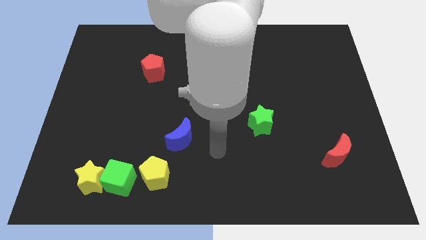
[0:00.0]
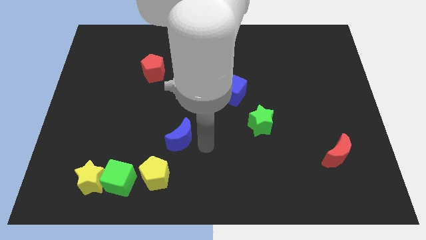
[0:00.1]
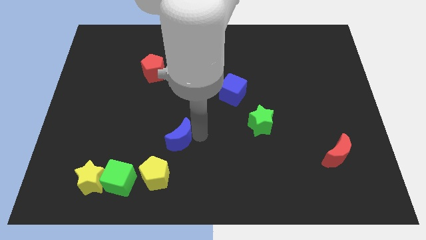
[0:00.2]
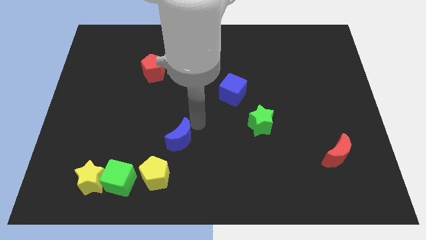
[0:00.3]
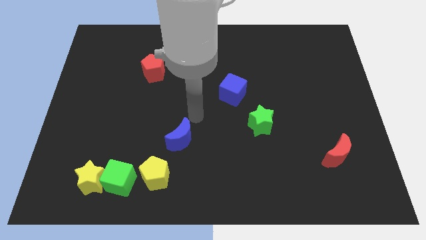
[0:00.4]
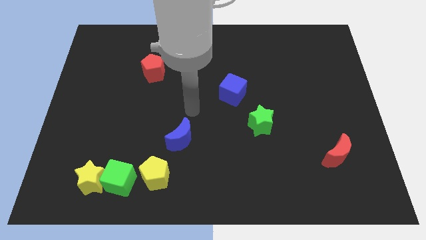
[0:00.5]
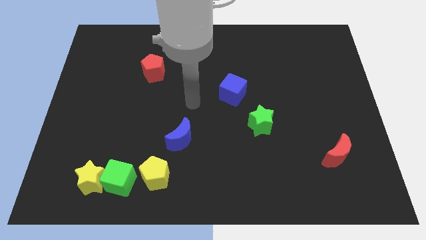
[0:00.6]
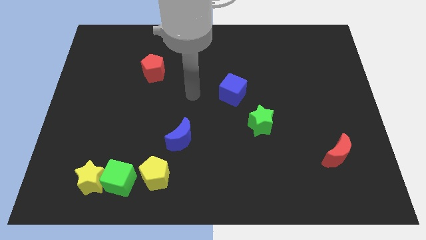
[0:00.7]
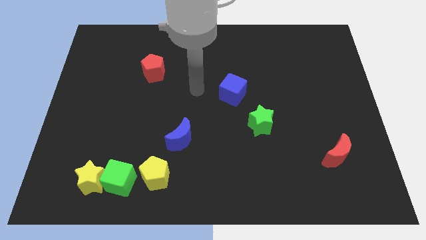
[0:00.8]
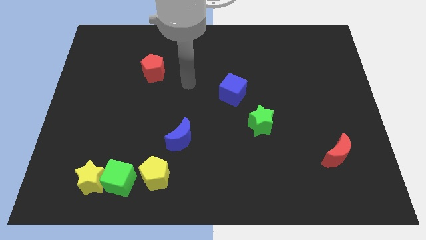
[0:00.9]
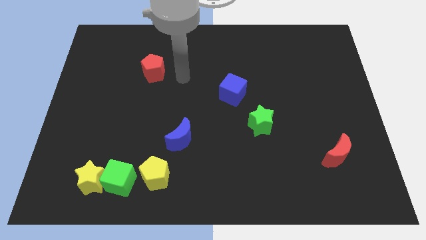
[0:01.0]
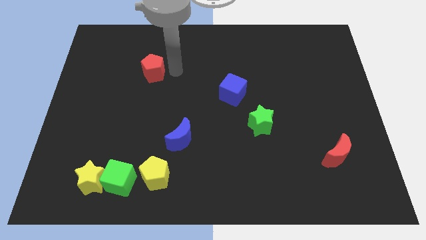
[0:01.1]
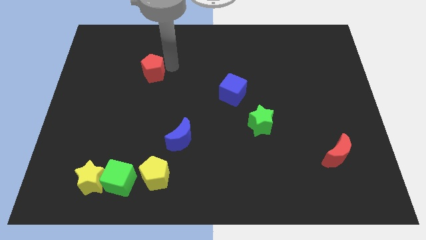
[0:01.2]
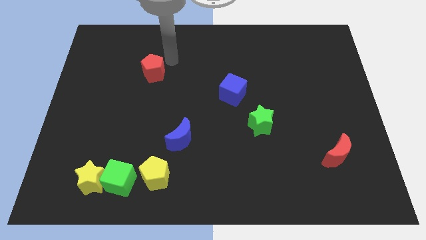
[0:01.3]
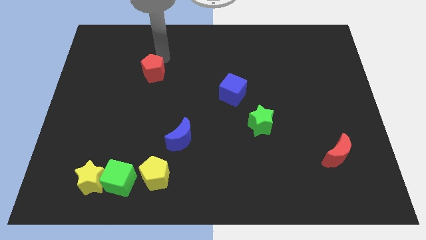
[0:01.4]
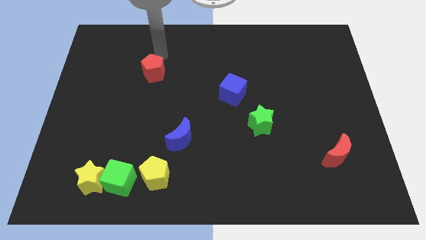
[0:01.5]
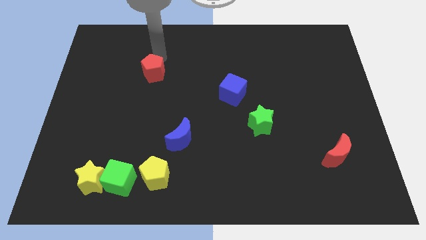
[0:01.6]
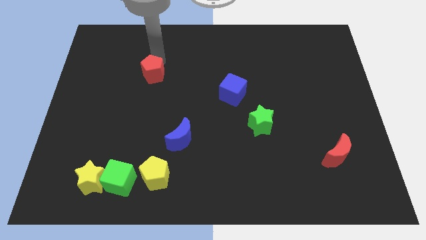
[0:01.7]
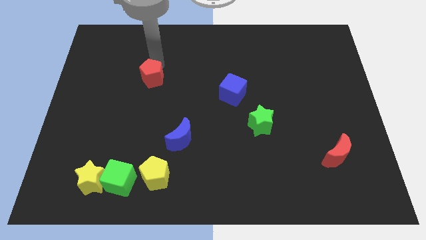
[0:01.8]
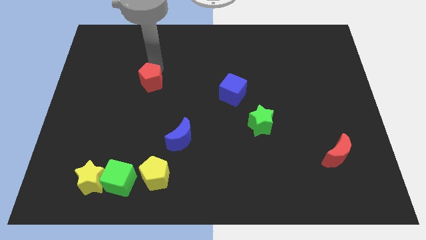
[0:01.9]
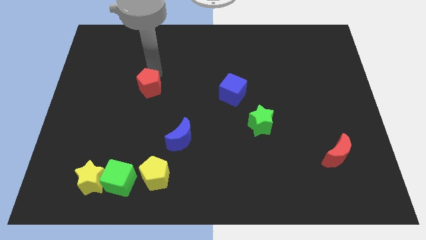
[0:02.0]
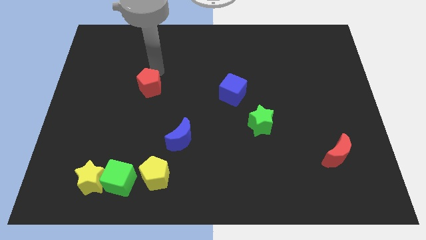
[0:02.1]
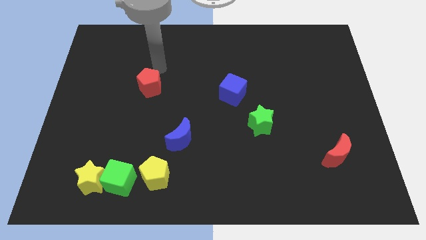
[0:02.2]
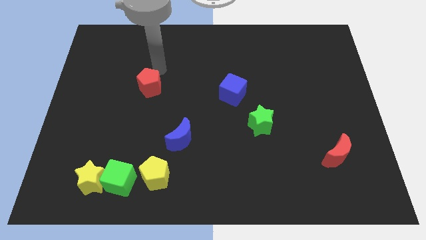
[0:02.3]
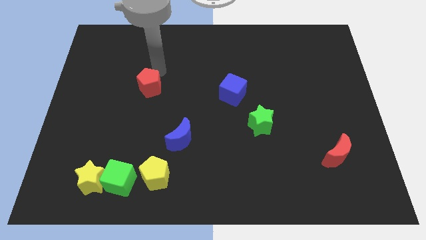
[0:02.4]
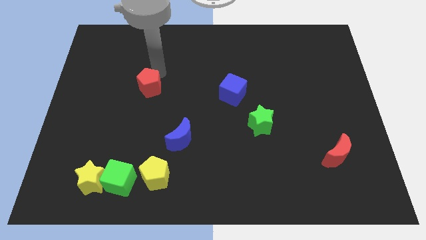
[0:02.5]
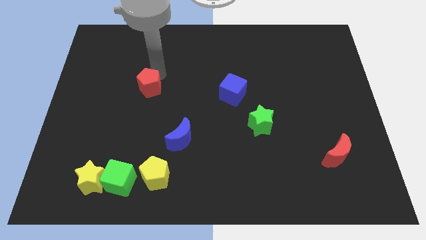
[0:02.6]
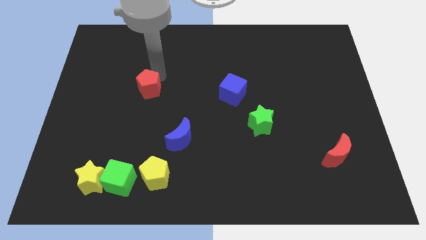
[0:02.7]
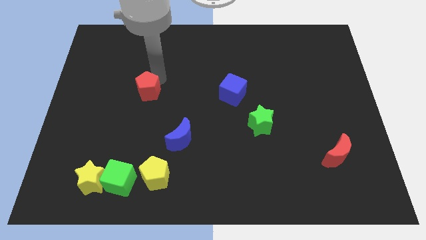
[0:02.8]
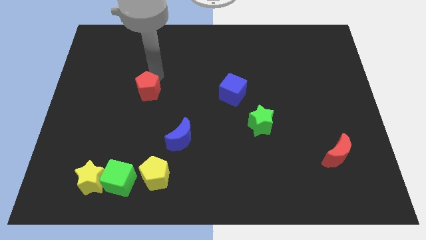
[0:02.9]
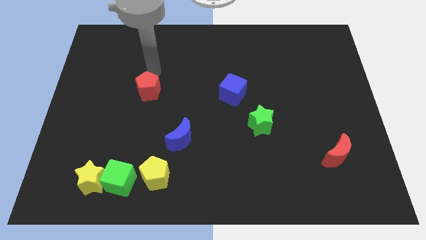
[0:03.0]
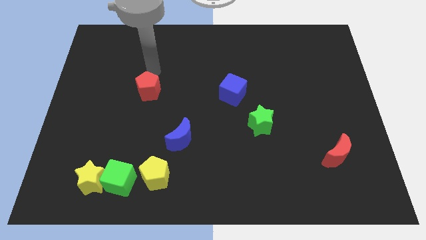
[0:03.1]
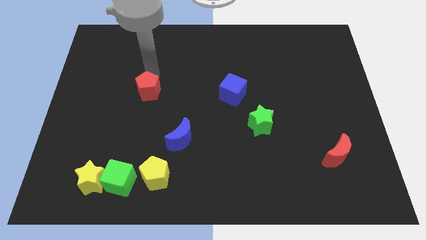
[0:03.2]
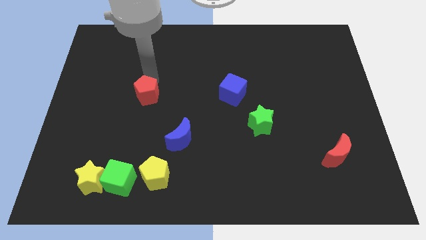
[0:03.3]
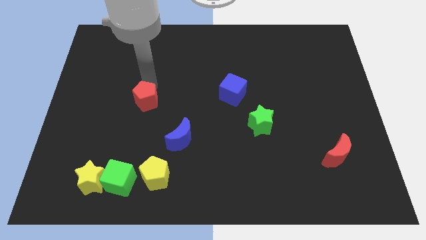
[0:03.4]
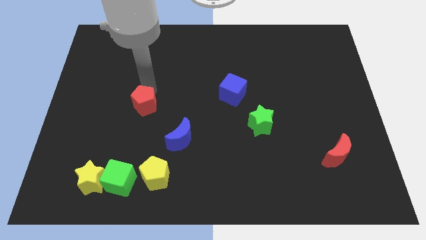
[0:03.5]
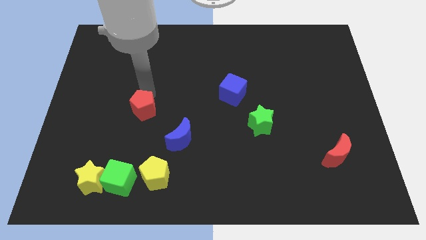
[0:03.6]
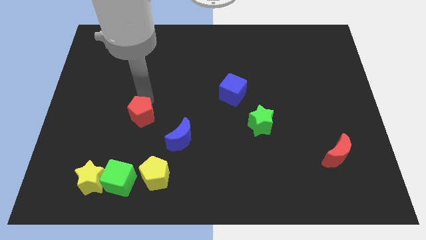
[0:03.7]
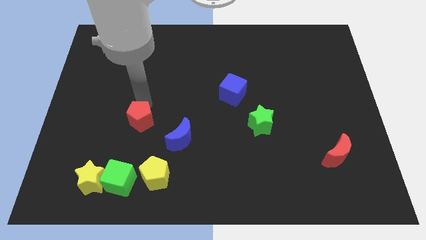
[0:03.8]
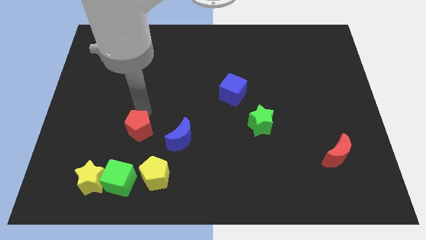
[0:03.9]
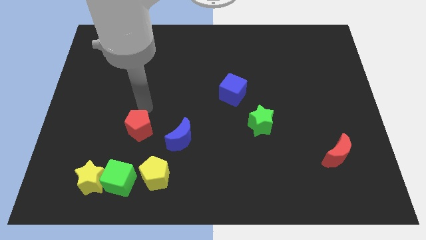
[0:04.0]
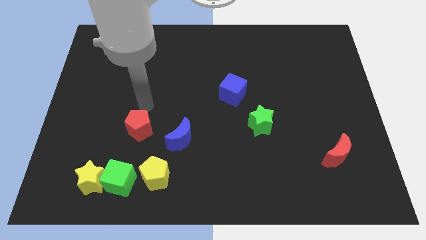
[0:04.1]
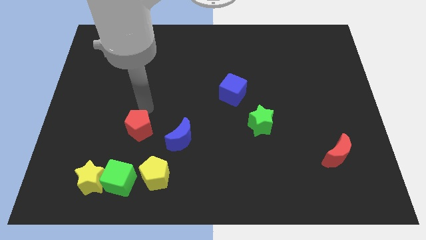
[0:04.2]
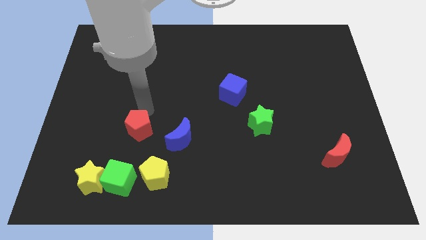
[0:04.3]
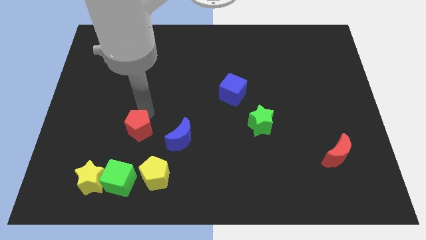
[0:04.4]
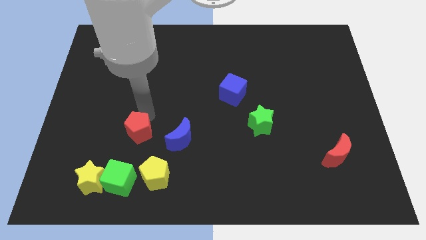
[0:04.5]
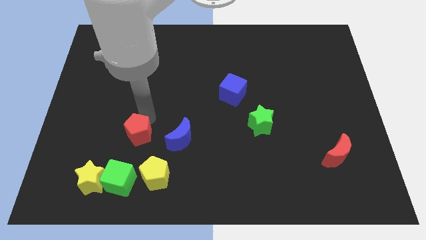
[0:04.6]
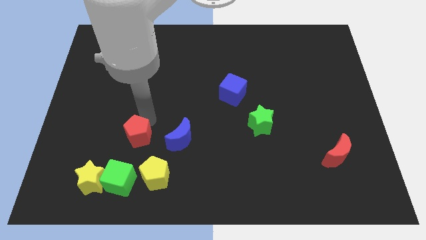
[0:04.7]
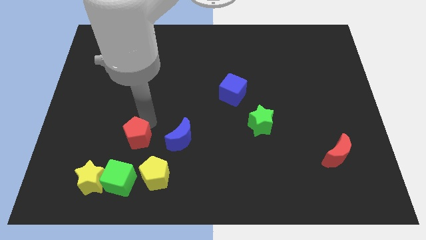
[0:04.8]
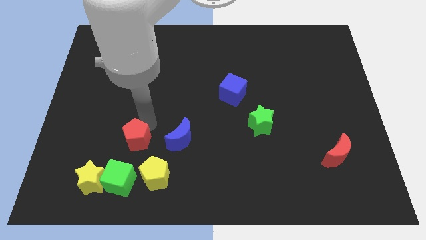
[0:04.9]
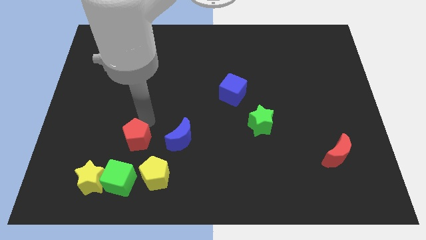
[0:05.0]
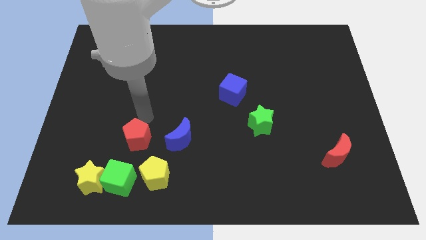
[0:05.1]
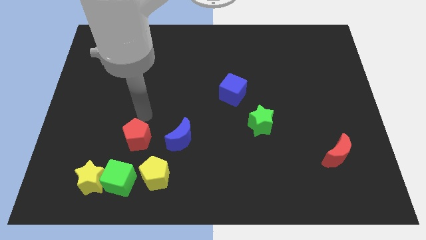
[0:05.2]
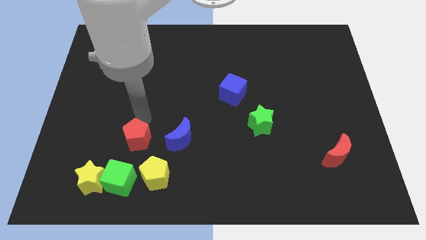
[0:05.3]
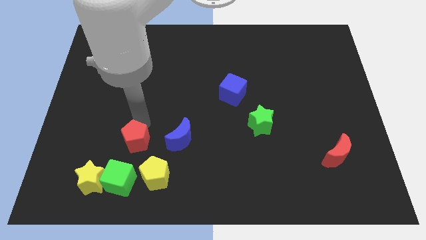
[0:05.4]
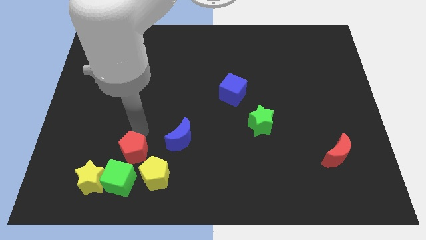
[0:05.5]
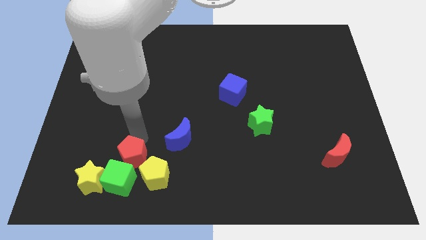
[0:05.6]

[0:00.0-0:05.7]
slide the red pentagon to the green cube

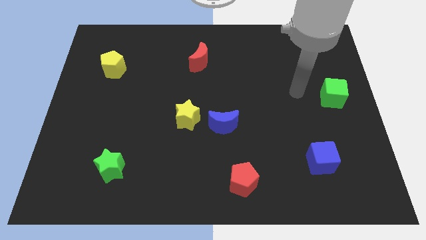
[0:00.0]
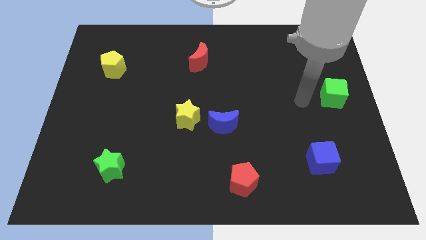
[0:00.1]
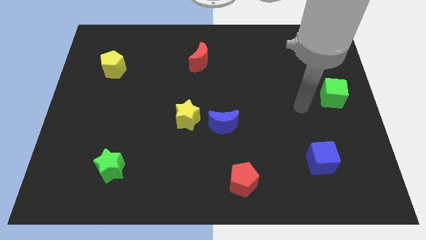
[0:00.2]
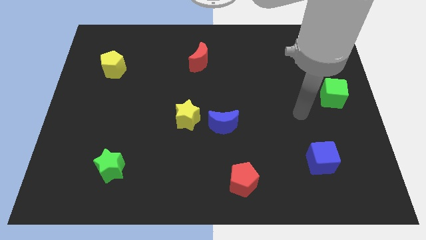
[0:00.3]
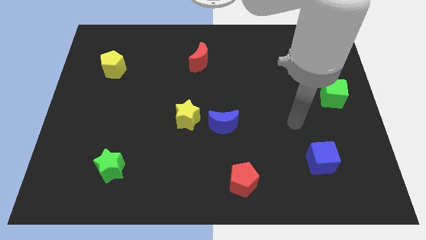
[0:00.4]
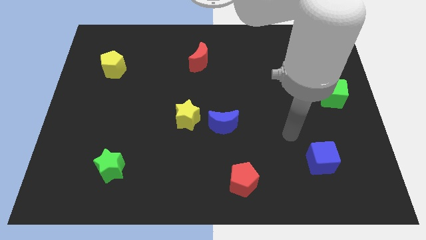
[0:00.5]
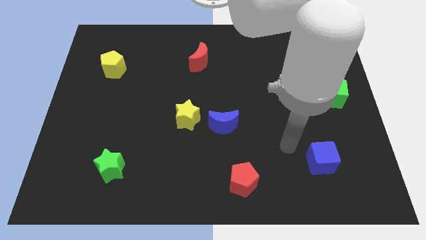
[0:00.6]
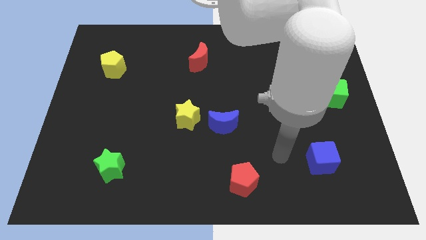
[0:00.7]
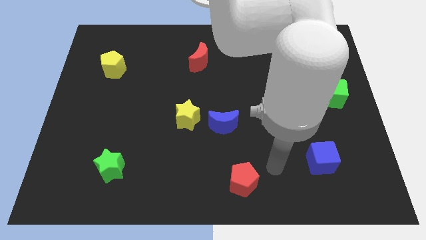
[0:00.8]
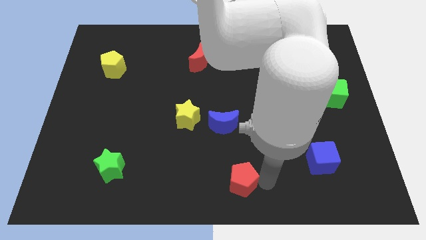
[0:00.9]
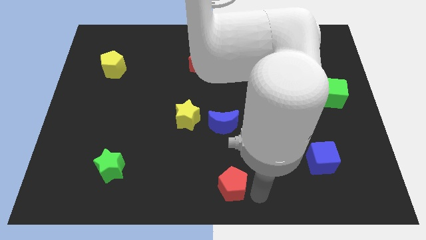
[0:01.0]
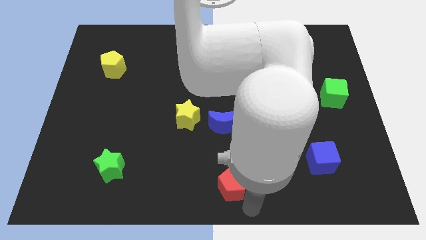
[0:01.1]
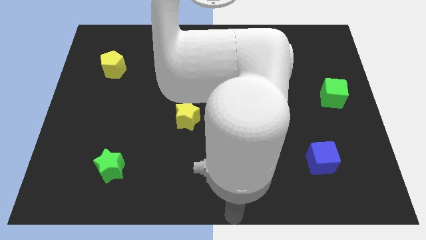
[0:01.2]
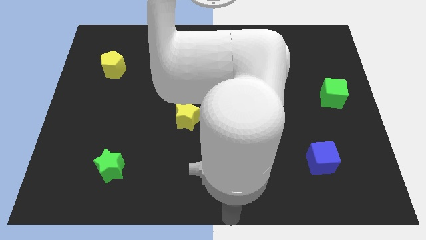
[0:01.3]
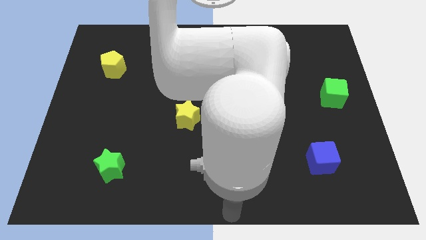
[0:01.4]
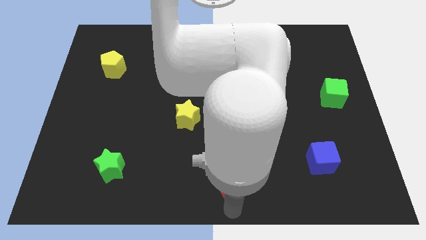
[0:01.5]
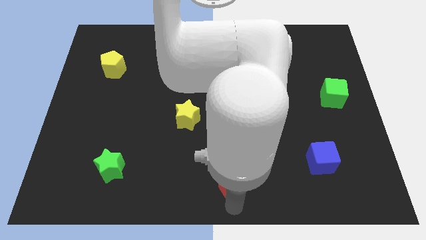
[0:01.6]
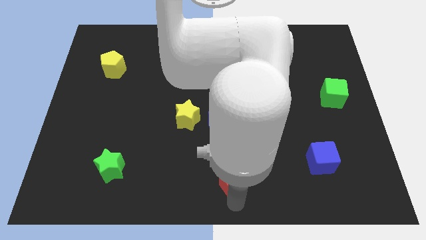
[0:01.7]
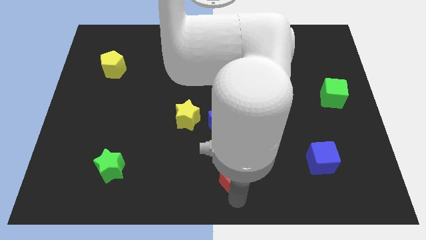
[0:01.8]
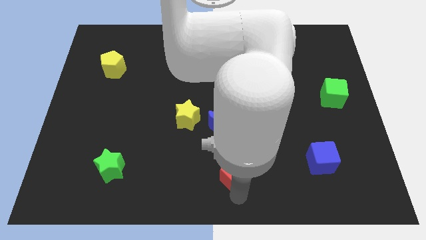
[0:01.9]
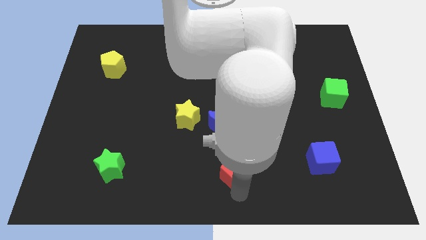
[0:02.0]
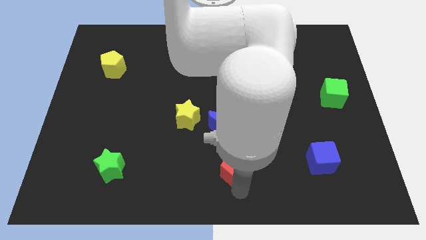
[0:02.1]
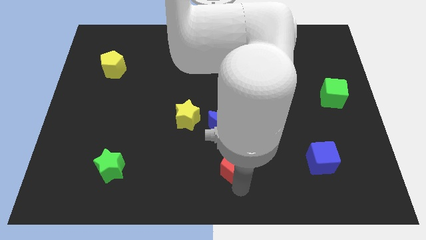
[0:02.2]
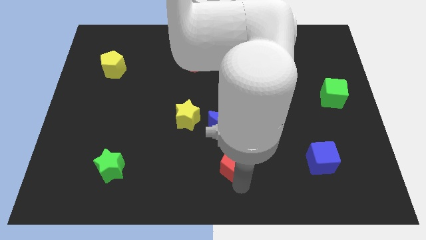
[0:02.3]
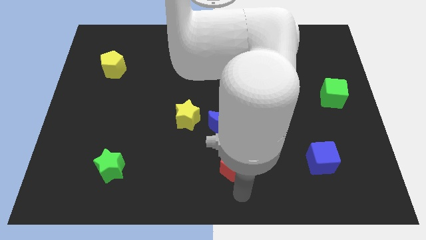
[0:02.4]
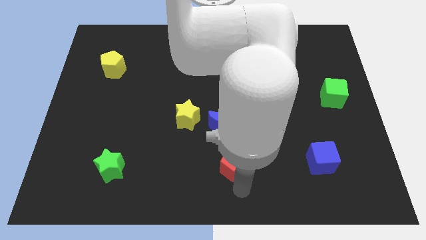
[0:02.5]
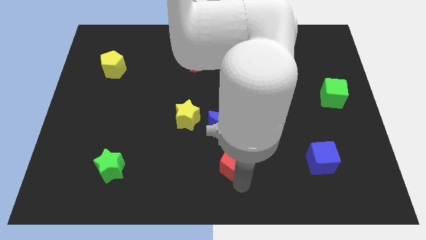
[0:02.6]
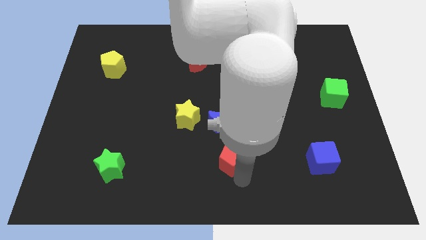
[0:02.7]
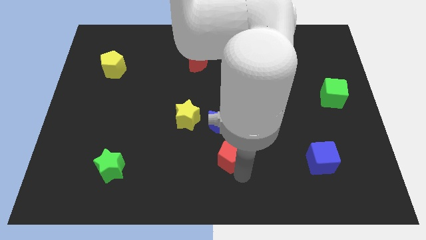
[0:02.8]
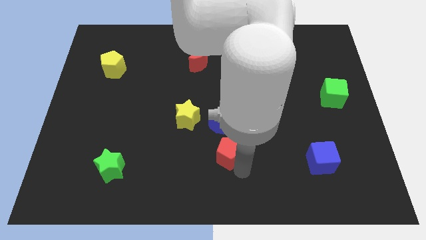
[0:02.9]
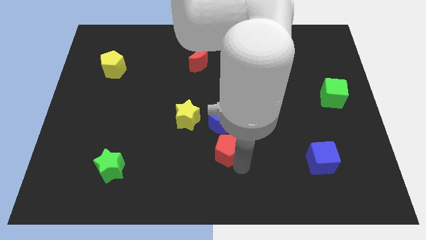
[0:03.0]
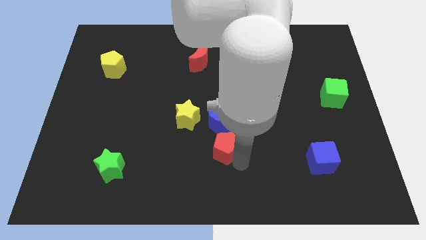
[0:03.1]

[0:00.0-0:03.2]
put the red pentagon close to the blue moon
